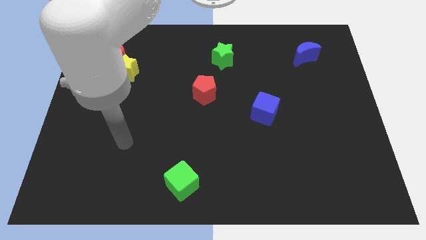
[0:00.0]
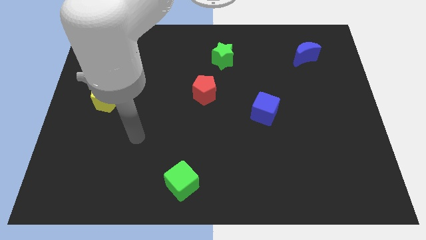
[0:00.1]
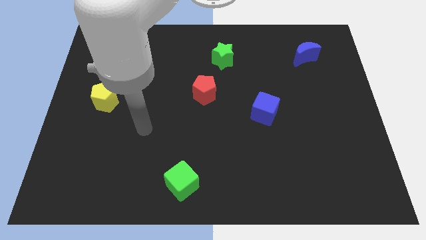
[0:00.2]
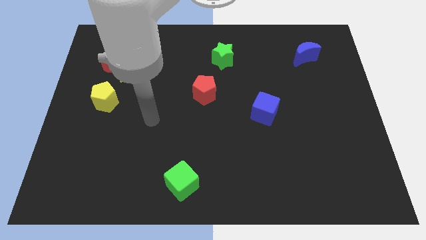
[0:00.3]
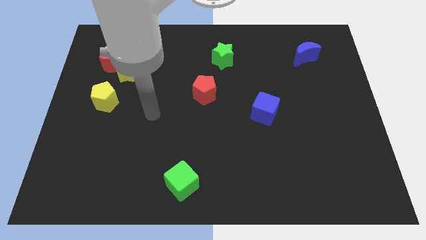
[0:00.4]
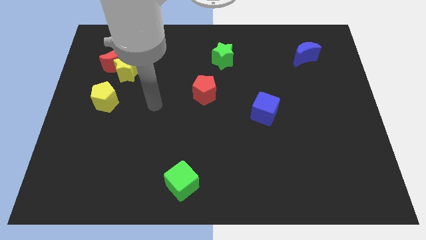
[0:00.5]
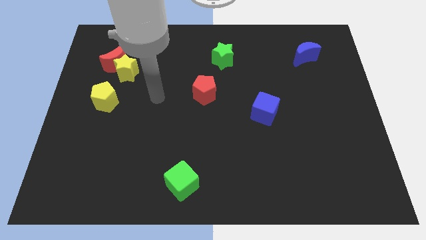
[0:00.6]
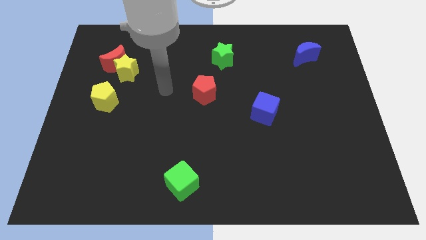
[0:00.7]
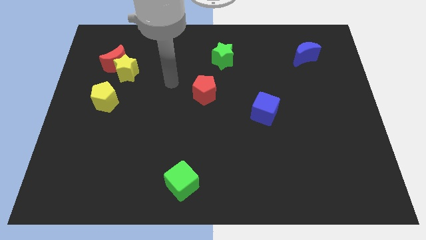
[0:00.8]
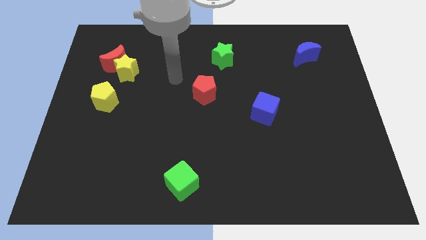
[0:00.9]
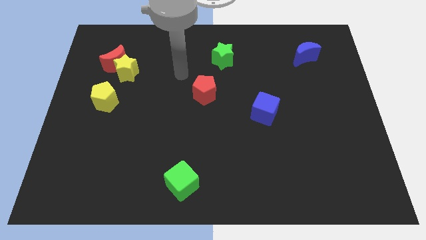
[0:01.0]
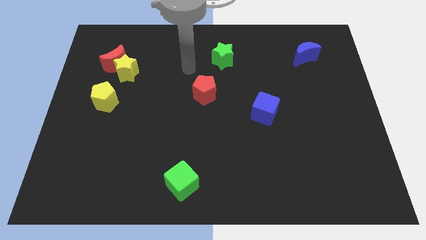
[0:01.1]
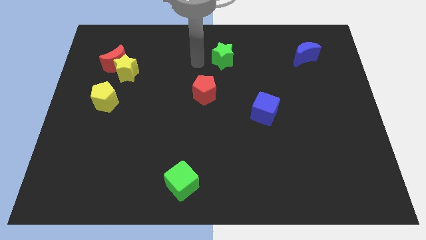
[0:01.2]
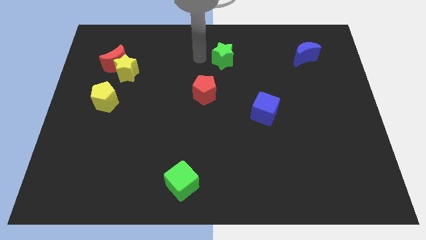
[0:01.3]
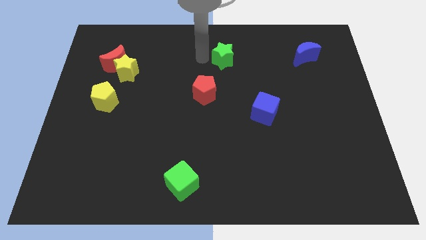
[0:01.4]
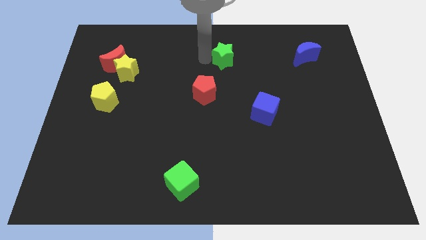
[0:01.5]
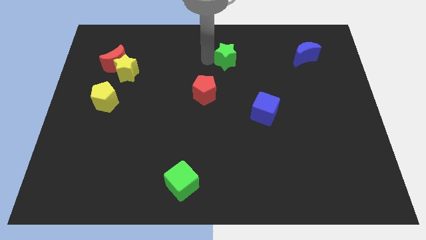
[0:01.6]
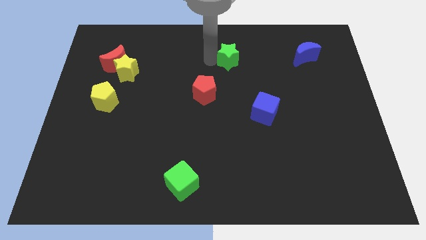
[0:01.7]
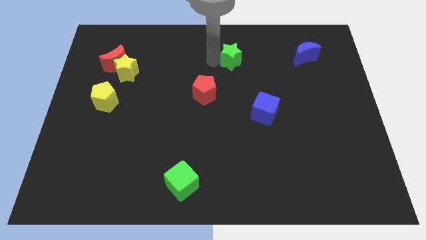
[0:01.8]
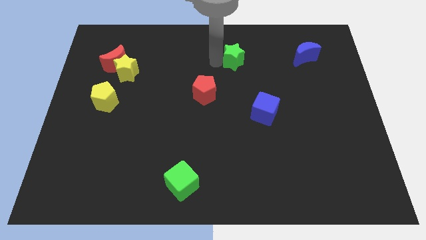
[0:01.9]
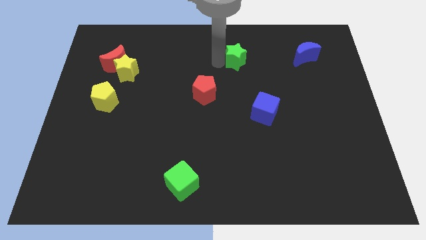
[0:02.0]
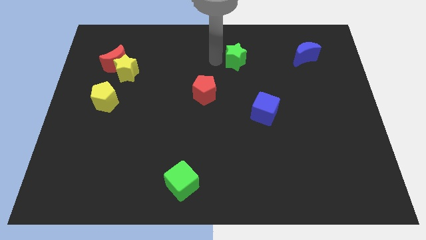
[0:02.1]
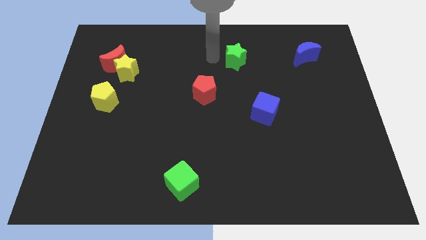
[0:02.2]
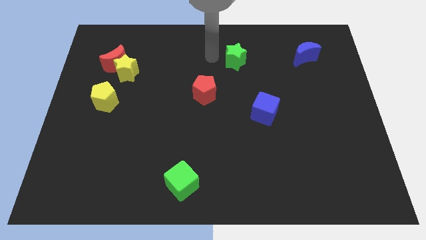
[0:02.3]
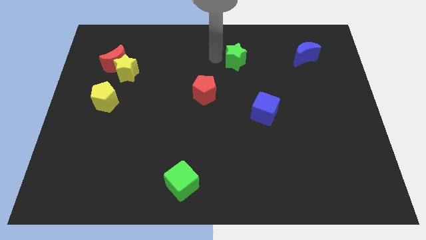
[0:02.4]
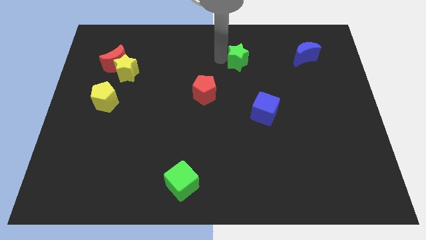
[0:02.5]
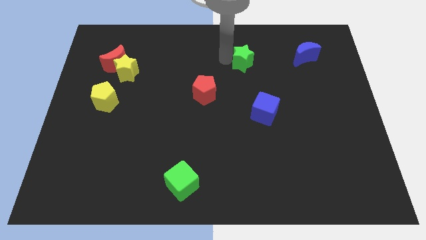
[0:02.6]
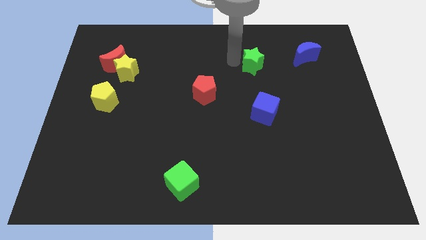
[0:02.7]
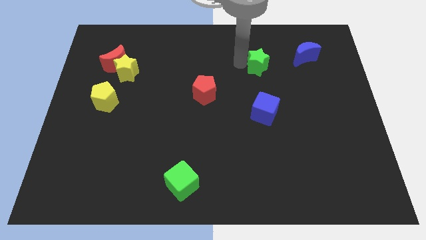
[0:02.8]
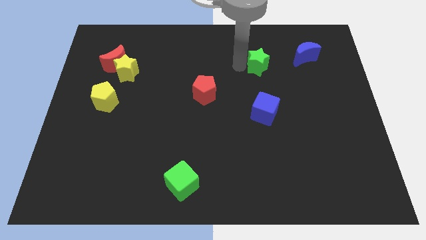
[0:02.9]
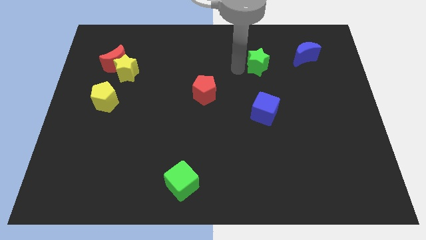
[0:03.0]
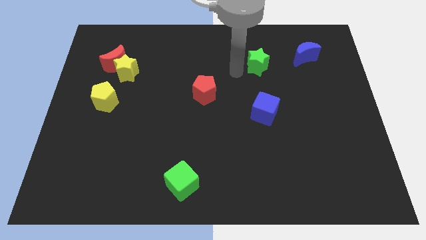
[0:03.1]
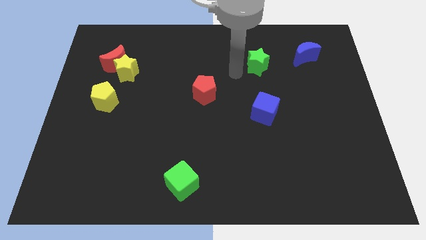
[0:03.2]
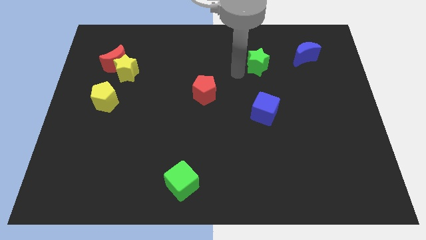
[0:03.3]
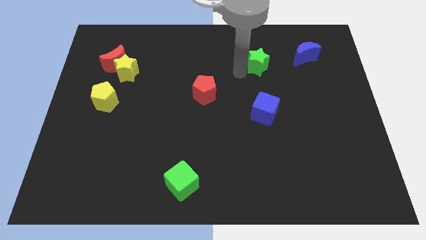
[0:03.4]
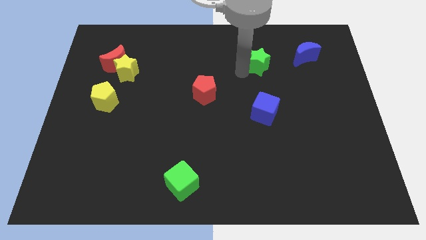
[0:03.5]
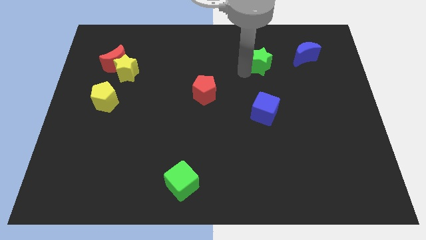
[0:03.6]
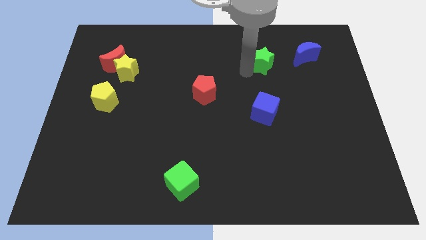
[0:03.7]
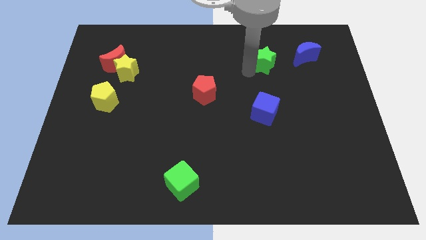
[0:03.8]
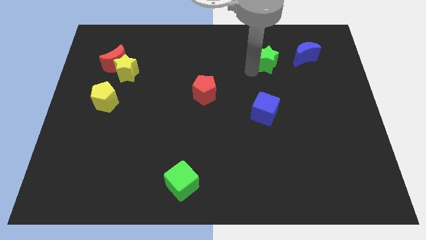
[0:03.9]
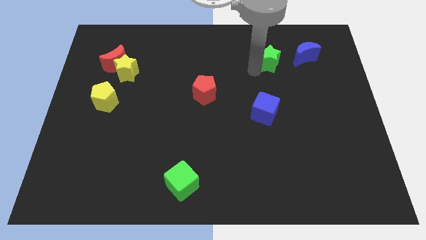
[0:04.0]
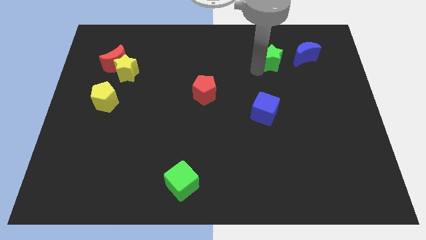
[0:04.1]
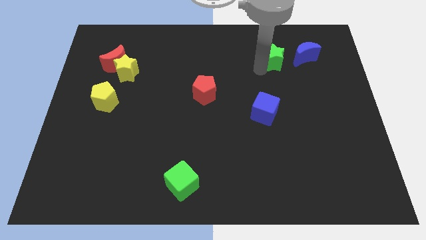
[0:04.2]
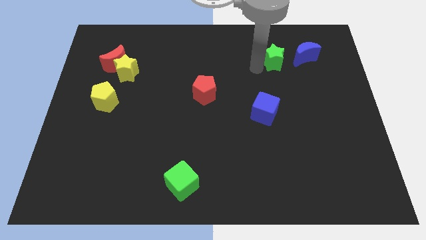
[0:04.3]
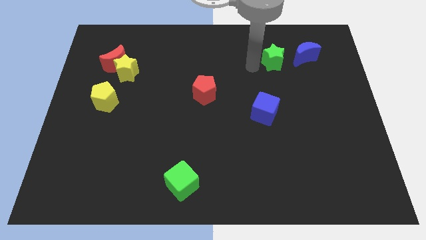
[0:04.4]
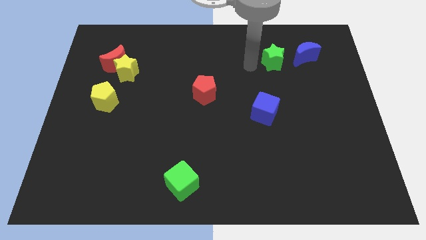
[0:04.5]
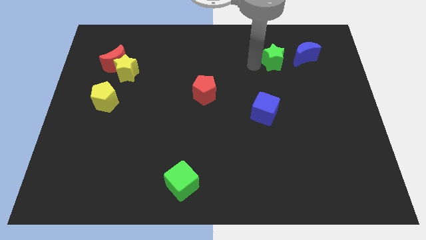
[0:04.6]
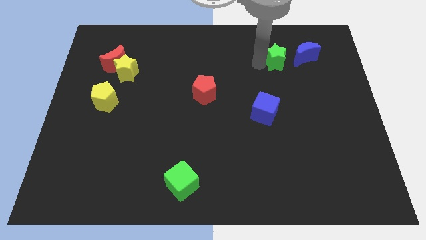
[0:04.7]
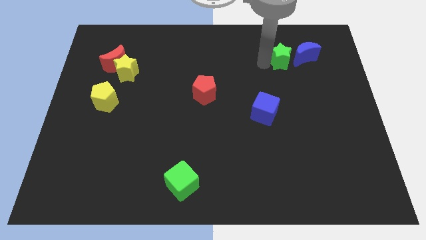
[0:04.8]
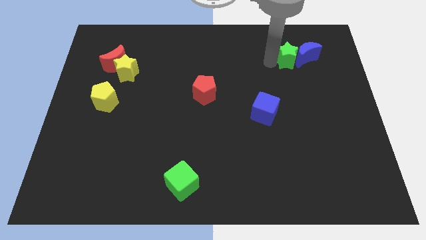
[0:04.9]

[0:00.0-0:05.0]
move the green star towards the blue moon

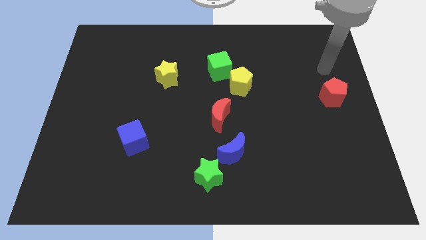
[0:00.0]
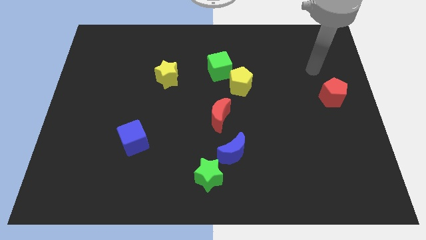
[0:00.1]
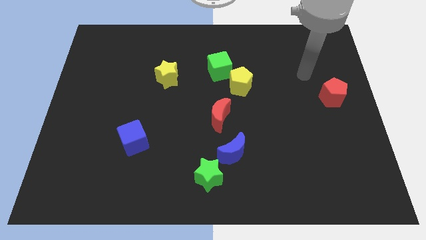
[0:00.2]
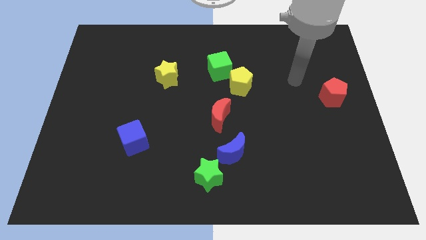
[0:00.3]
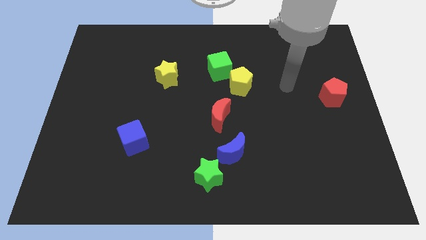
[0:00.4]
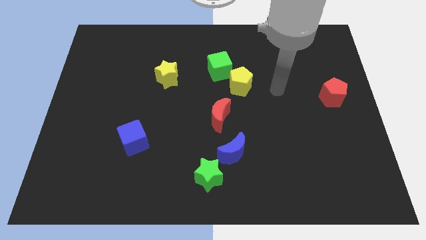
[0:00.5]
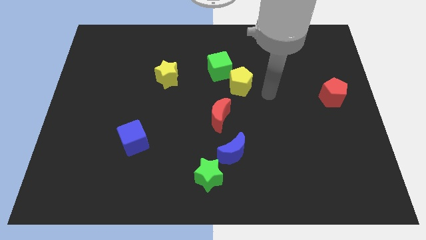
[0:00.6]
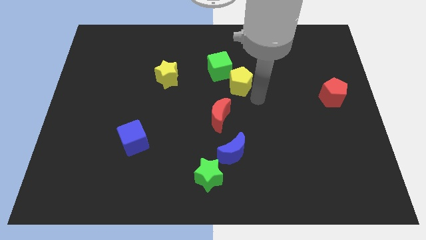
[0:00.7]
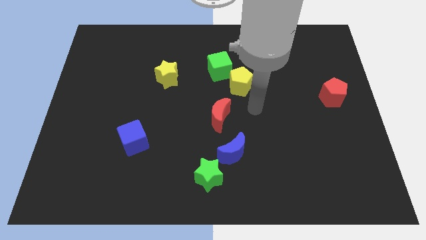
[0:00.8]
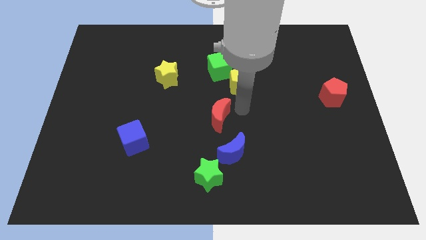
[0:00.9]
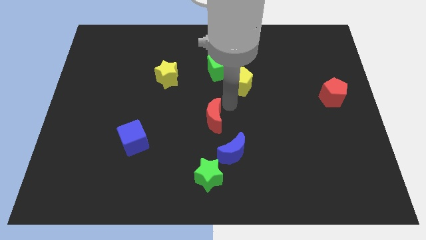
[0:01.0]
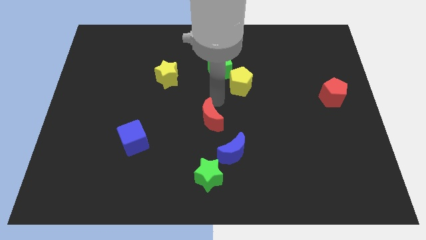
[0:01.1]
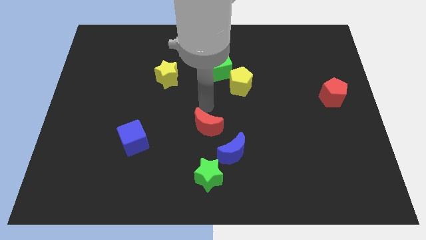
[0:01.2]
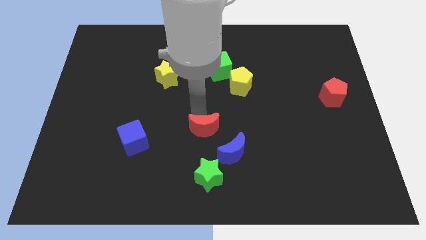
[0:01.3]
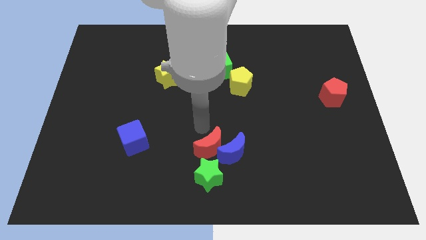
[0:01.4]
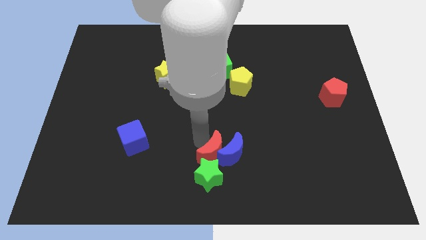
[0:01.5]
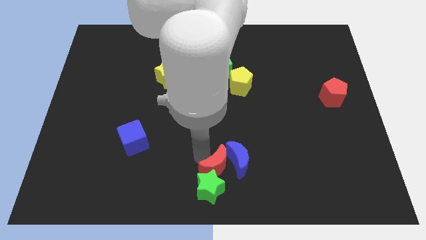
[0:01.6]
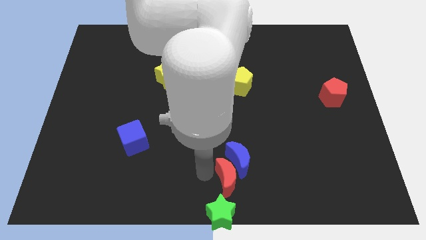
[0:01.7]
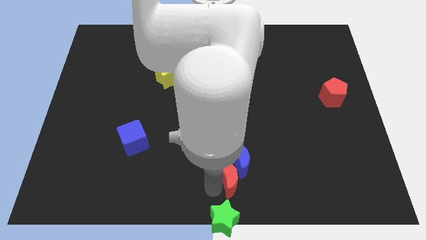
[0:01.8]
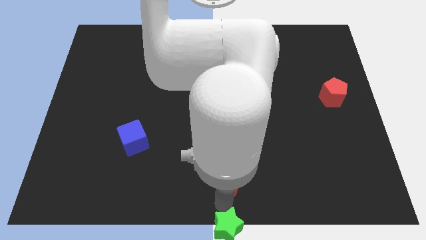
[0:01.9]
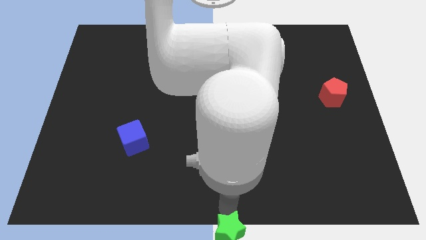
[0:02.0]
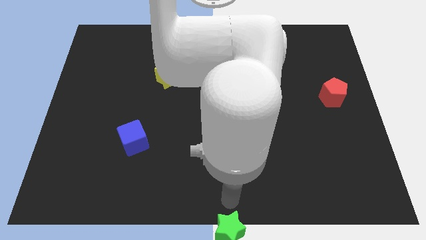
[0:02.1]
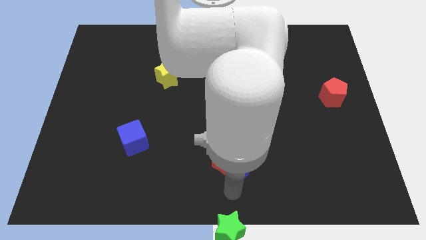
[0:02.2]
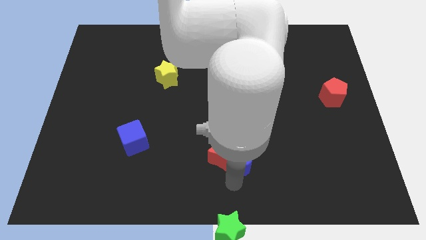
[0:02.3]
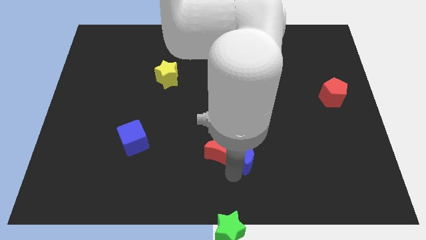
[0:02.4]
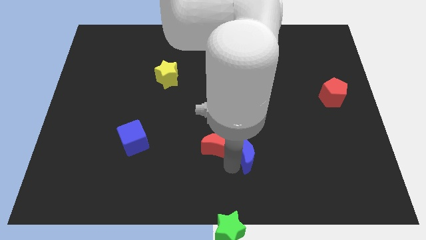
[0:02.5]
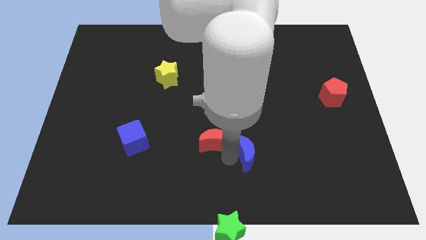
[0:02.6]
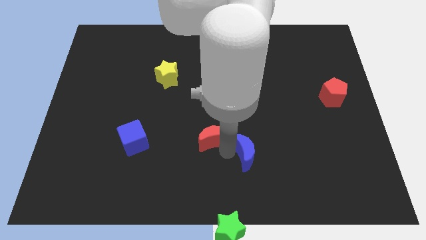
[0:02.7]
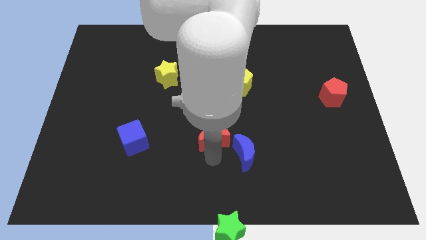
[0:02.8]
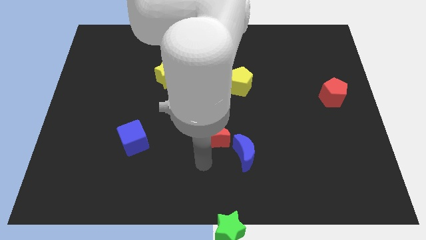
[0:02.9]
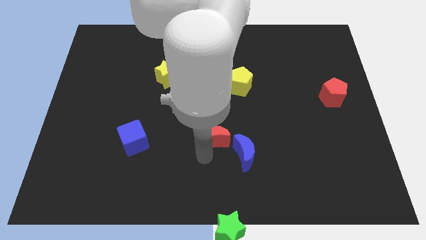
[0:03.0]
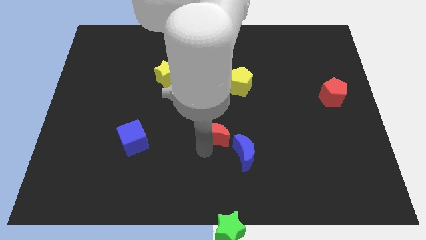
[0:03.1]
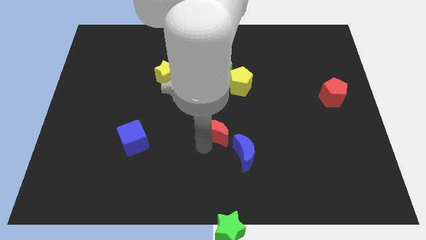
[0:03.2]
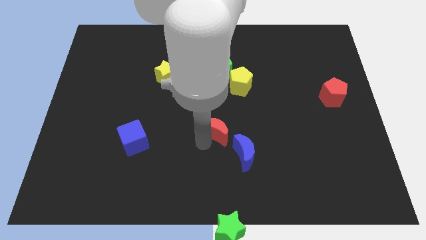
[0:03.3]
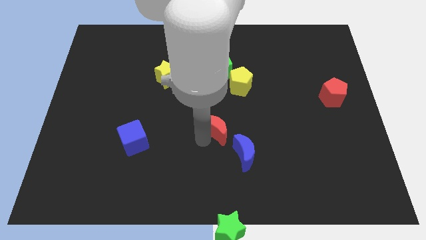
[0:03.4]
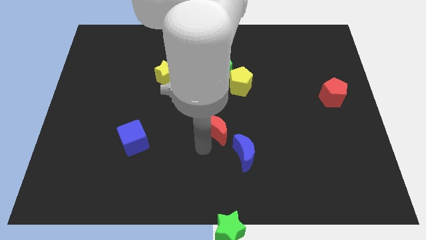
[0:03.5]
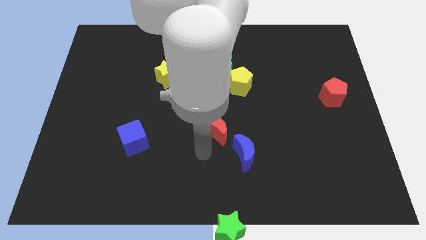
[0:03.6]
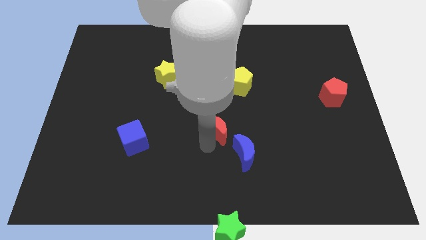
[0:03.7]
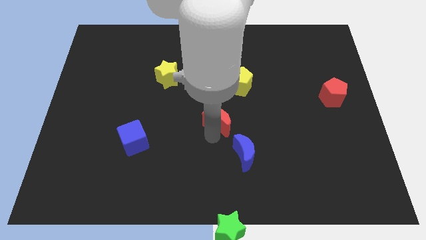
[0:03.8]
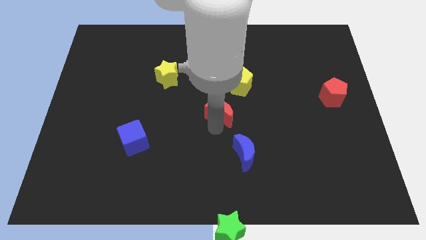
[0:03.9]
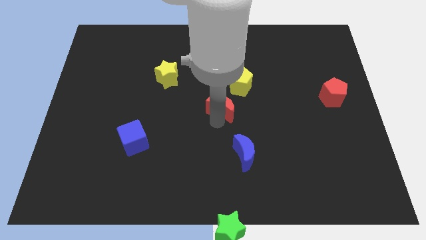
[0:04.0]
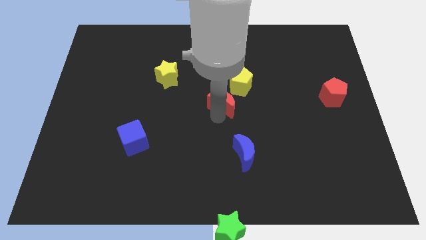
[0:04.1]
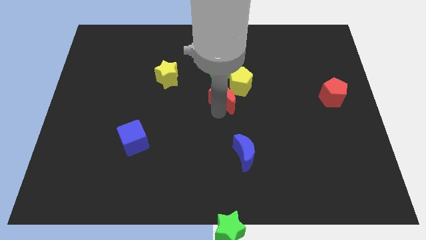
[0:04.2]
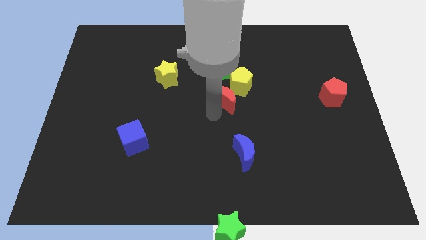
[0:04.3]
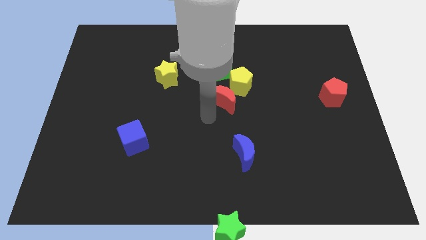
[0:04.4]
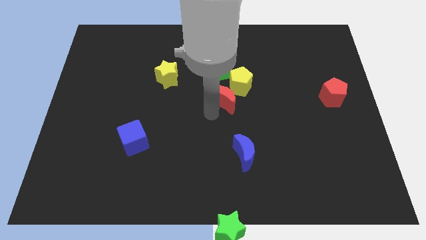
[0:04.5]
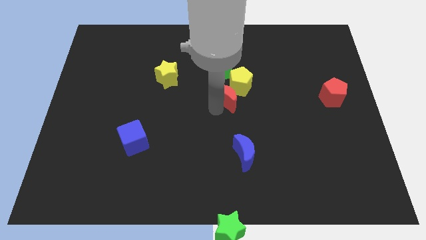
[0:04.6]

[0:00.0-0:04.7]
push the red moon next to the yellow pentagon
